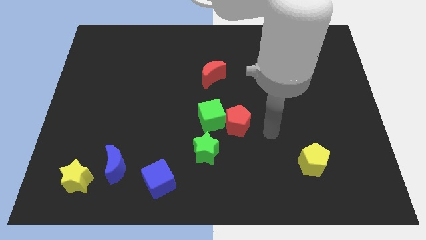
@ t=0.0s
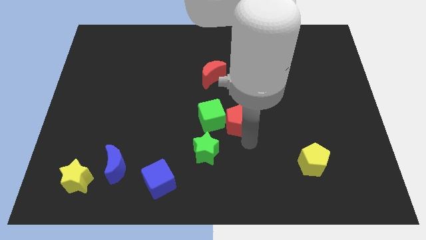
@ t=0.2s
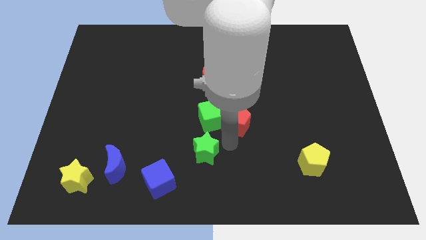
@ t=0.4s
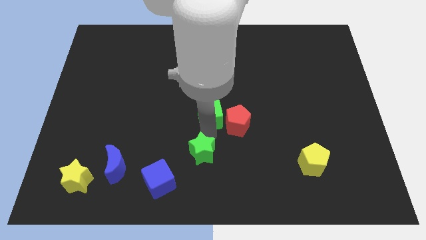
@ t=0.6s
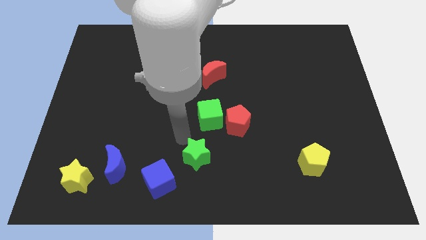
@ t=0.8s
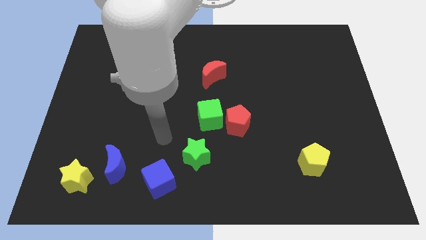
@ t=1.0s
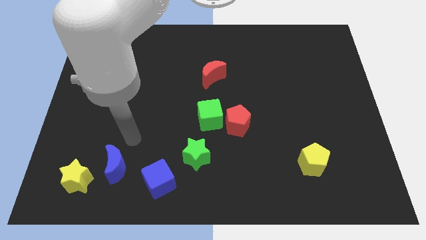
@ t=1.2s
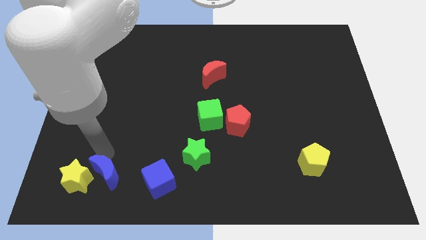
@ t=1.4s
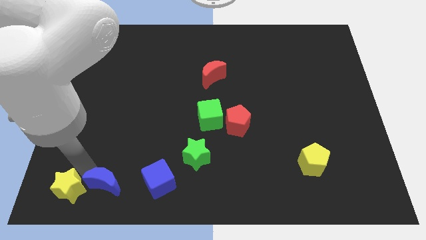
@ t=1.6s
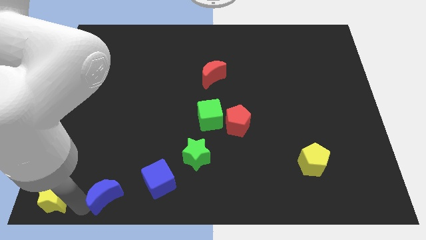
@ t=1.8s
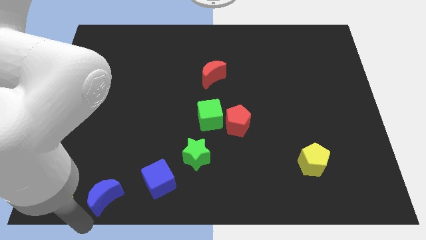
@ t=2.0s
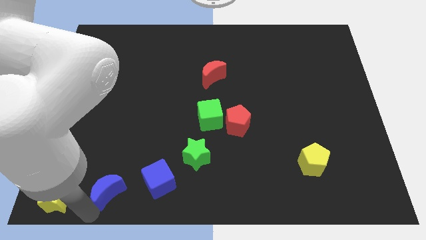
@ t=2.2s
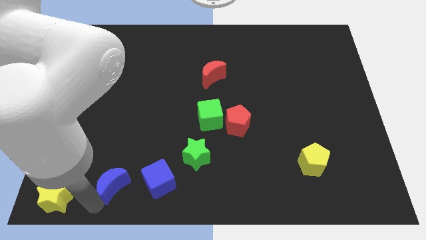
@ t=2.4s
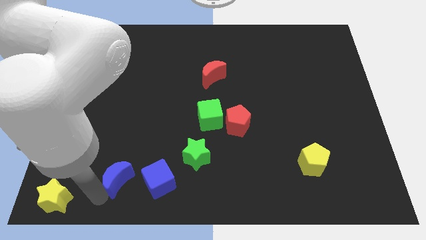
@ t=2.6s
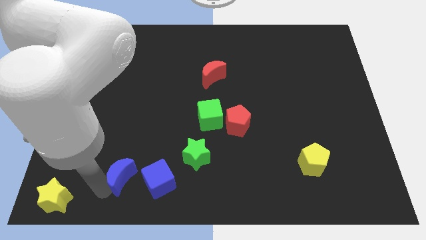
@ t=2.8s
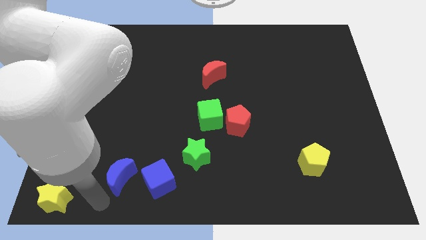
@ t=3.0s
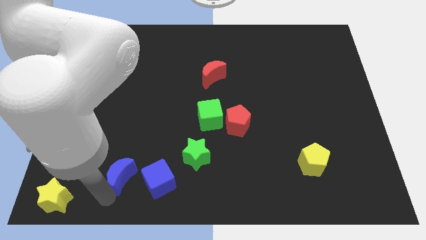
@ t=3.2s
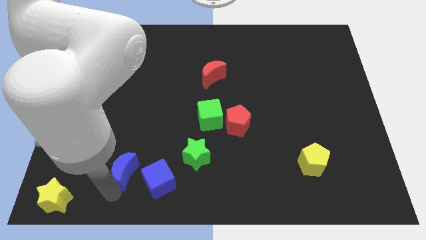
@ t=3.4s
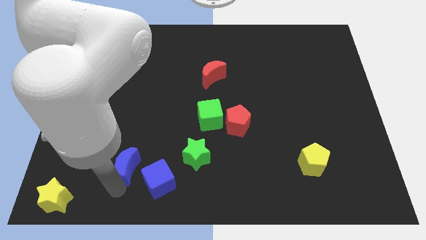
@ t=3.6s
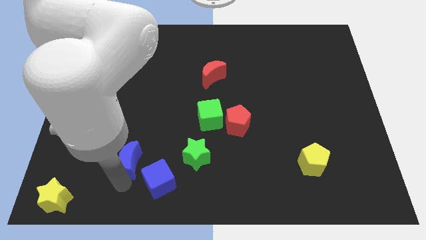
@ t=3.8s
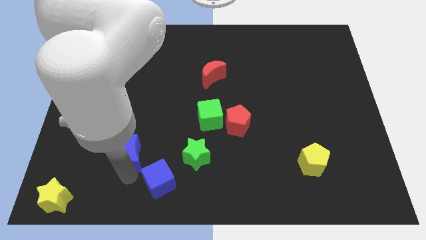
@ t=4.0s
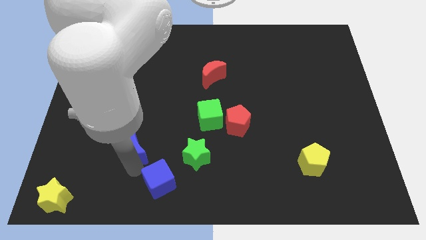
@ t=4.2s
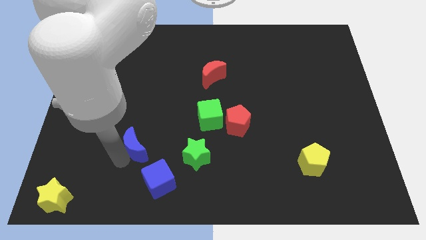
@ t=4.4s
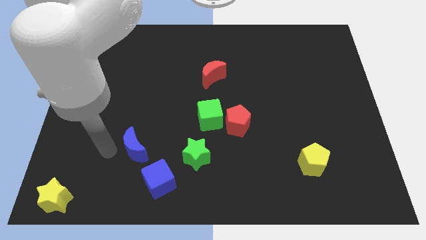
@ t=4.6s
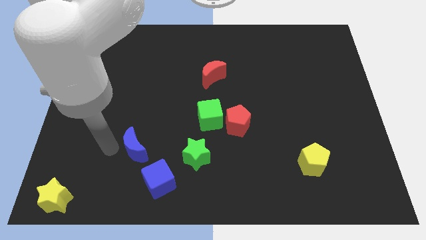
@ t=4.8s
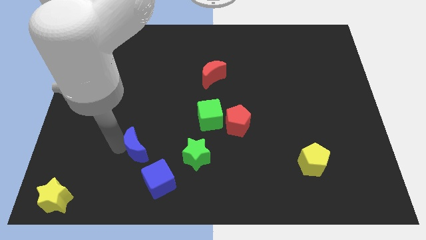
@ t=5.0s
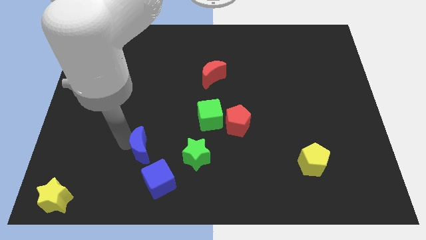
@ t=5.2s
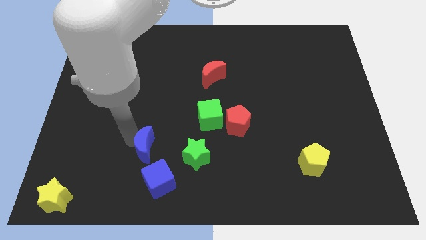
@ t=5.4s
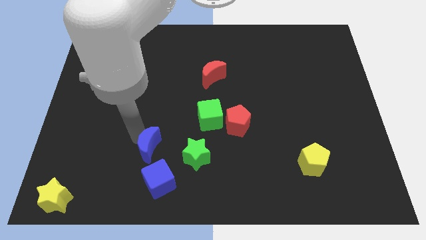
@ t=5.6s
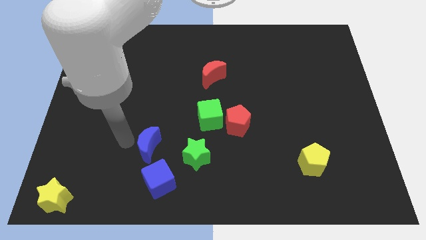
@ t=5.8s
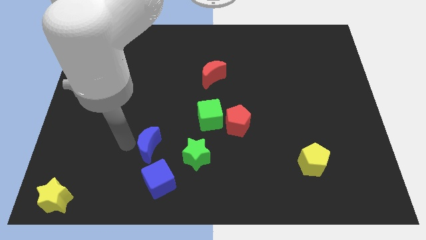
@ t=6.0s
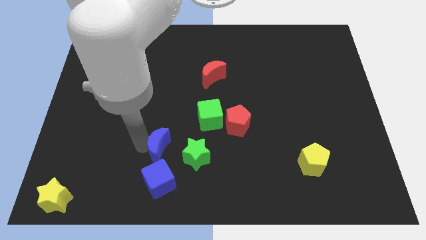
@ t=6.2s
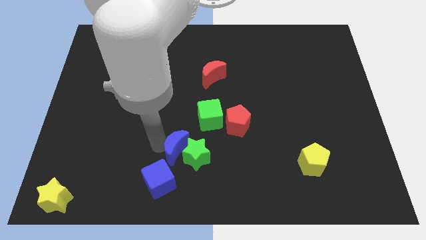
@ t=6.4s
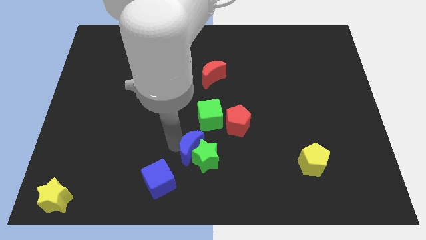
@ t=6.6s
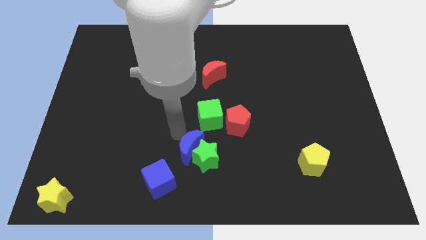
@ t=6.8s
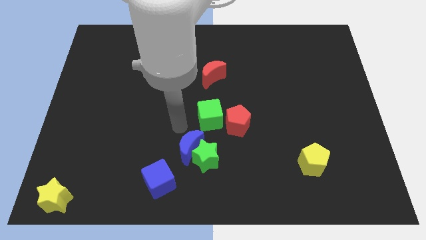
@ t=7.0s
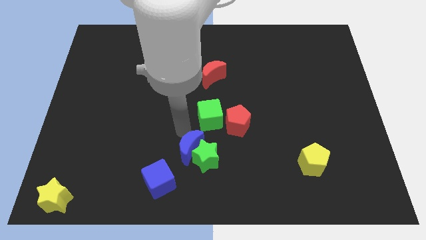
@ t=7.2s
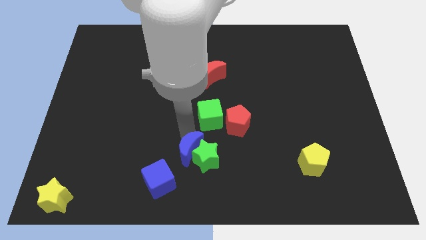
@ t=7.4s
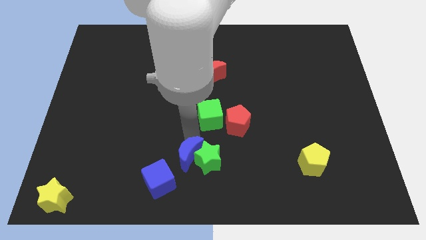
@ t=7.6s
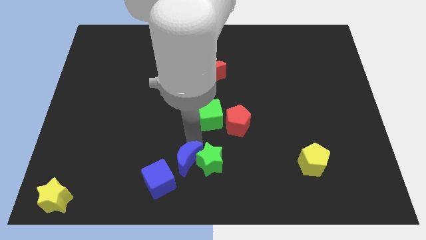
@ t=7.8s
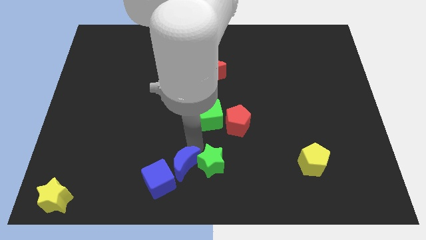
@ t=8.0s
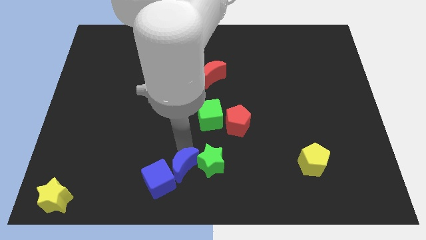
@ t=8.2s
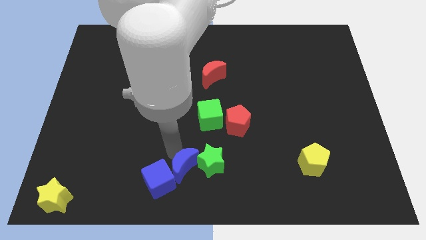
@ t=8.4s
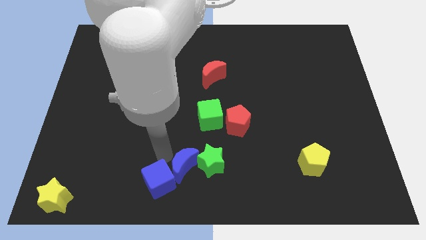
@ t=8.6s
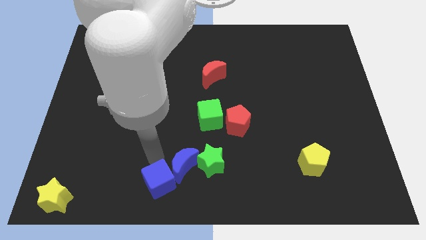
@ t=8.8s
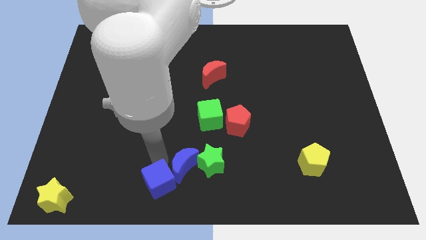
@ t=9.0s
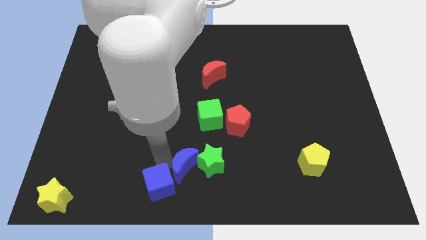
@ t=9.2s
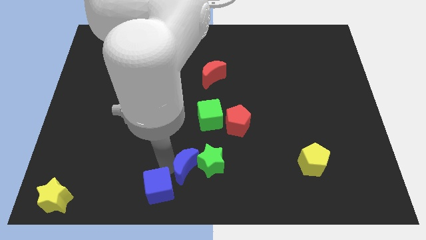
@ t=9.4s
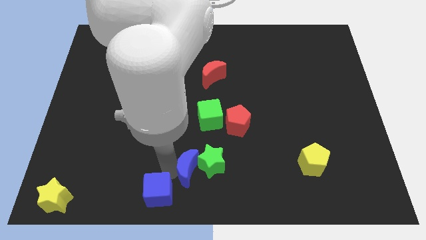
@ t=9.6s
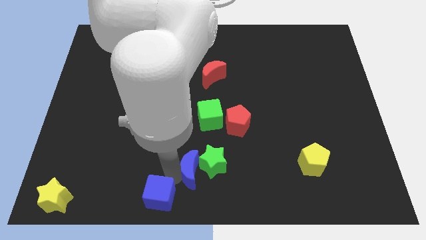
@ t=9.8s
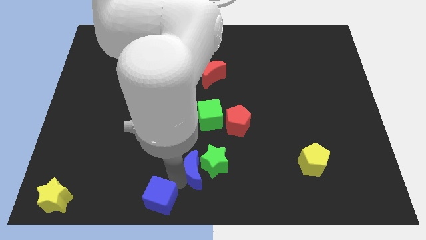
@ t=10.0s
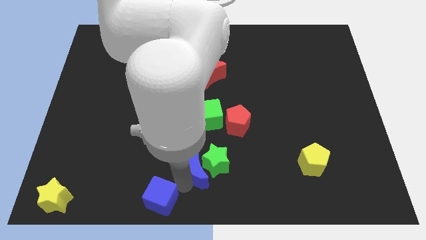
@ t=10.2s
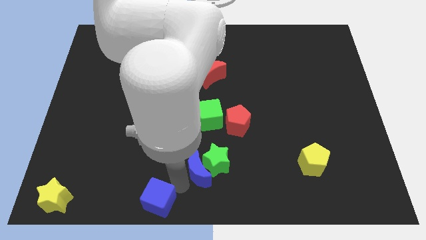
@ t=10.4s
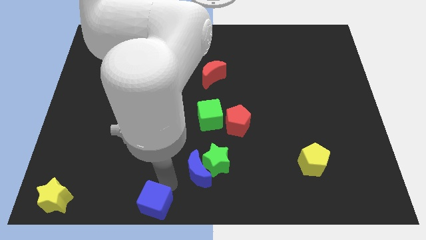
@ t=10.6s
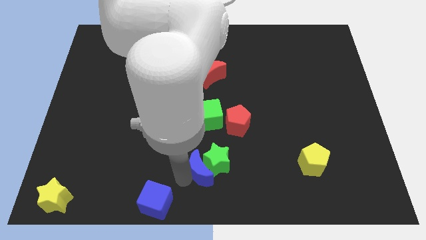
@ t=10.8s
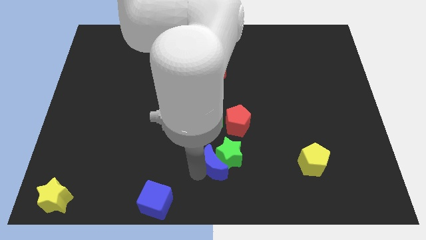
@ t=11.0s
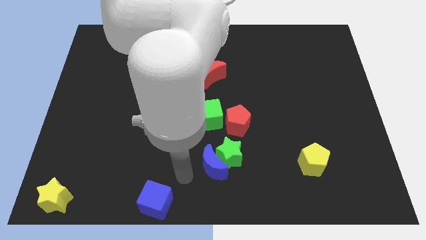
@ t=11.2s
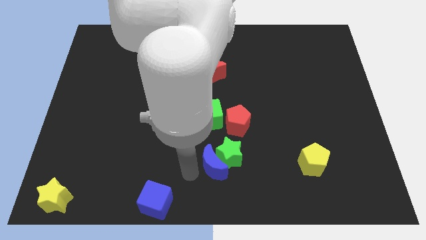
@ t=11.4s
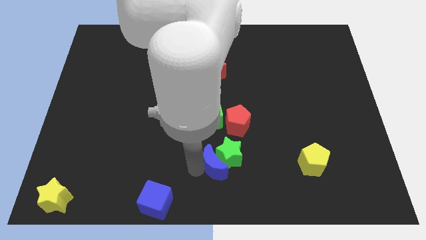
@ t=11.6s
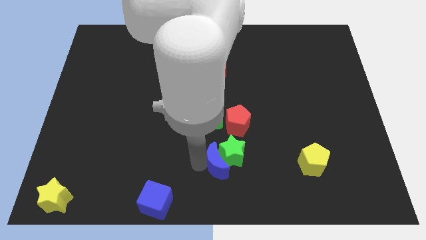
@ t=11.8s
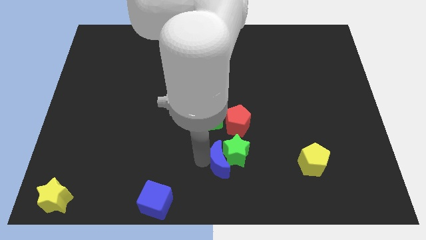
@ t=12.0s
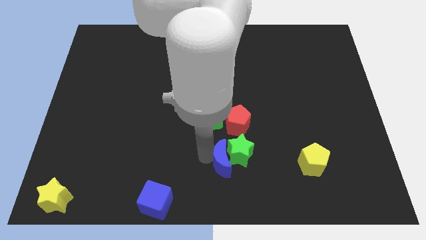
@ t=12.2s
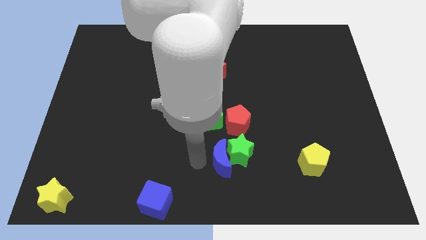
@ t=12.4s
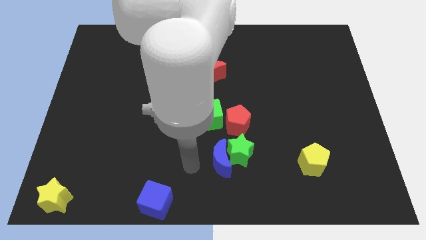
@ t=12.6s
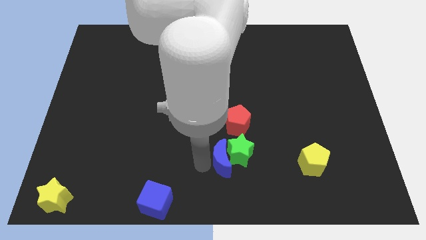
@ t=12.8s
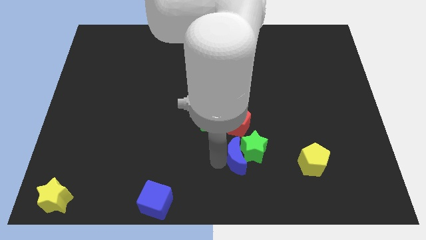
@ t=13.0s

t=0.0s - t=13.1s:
slide the blue moon just left of the yellow pentagon
